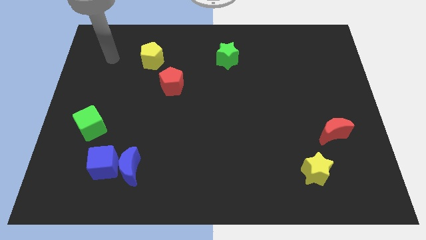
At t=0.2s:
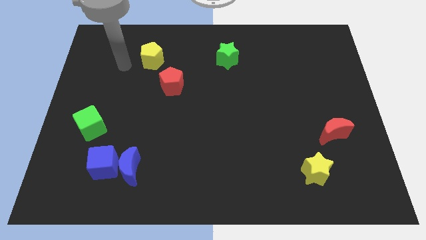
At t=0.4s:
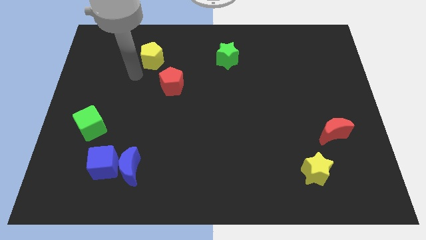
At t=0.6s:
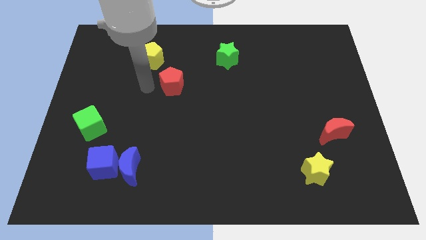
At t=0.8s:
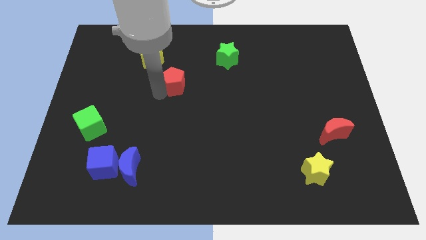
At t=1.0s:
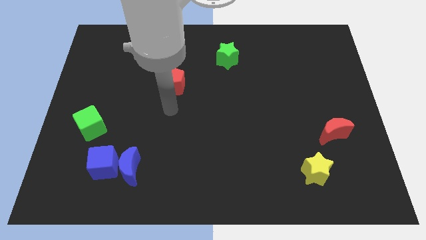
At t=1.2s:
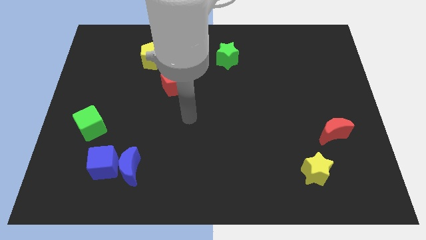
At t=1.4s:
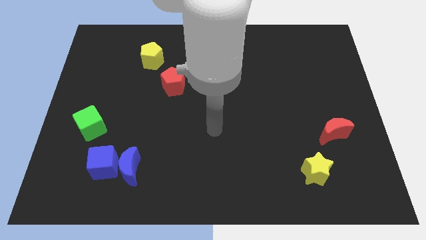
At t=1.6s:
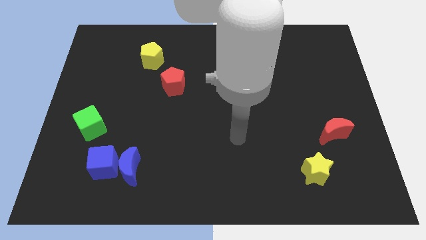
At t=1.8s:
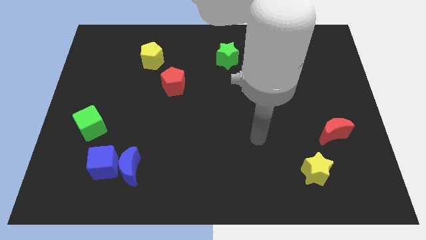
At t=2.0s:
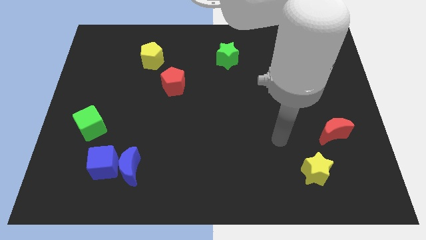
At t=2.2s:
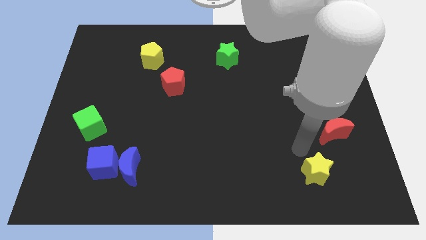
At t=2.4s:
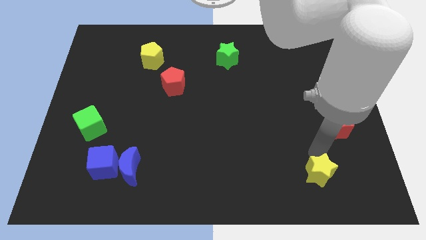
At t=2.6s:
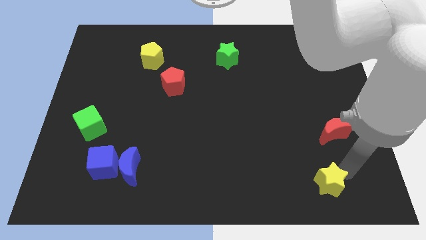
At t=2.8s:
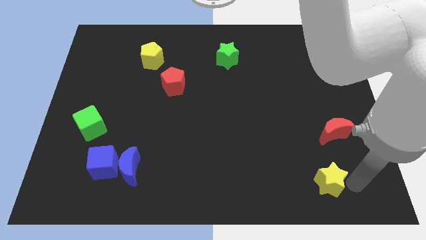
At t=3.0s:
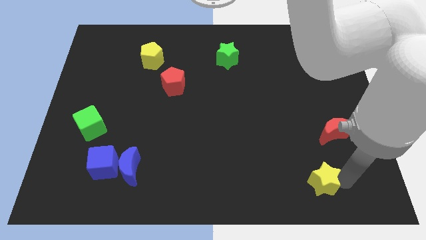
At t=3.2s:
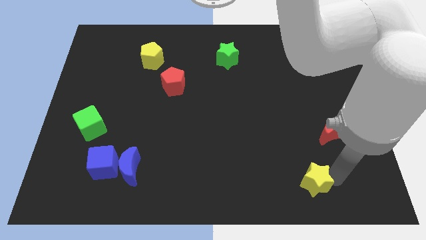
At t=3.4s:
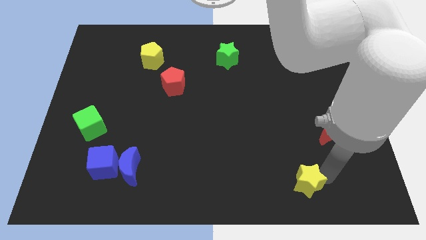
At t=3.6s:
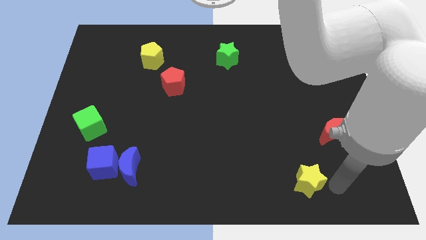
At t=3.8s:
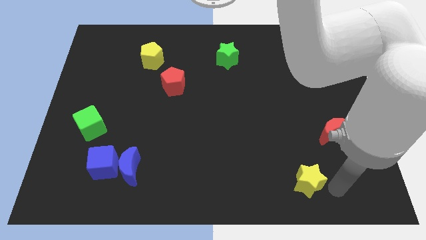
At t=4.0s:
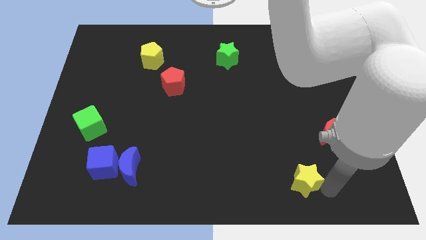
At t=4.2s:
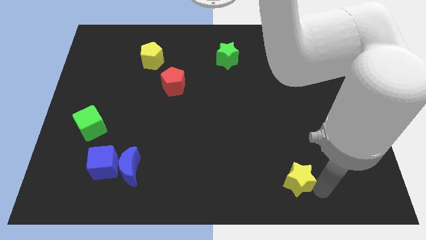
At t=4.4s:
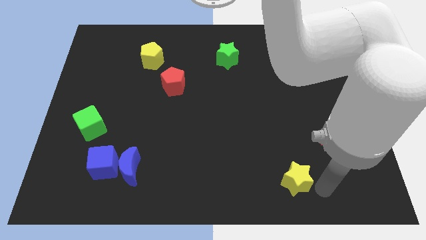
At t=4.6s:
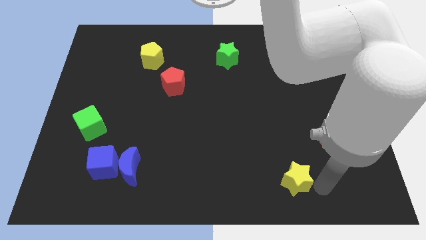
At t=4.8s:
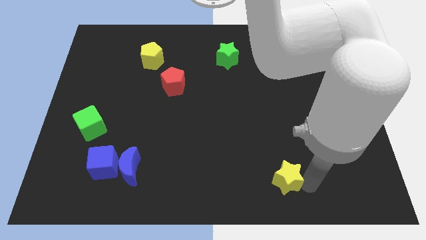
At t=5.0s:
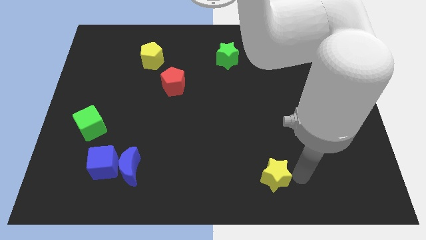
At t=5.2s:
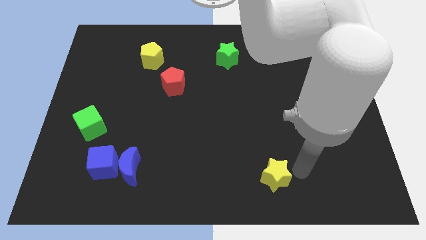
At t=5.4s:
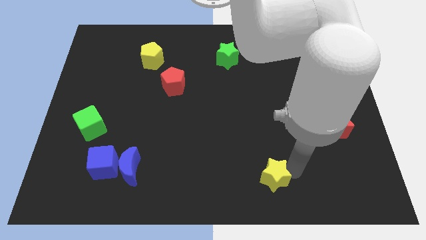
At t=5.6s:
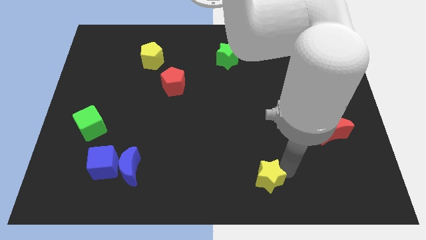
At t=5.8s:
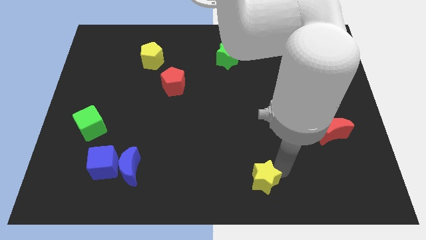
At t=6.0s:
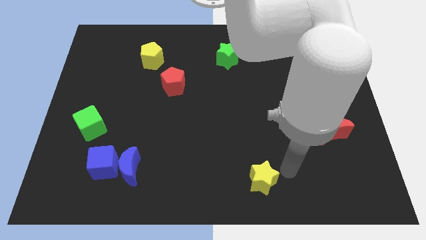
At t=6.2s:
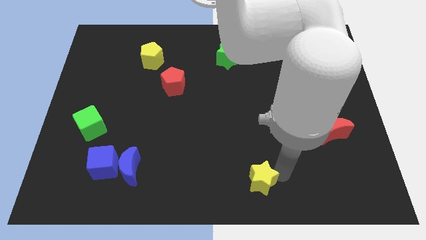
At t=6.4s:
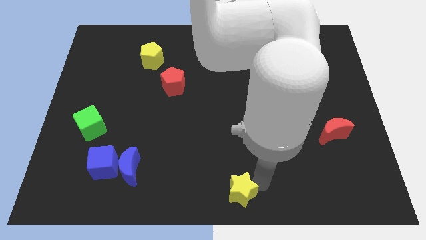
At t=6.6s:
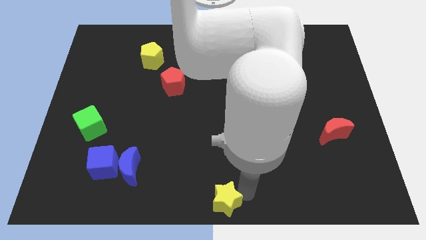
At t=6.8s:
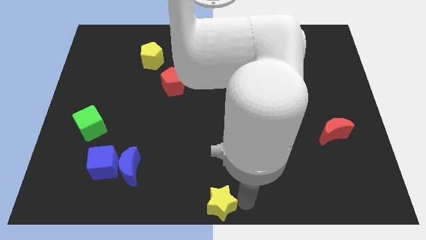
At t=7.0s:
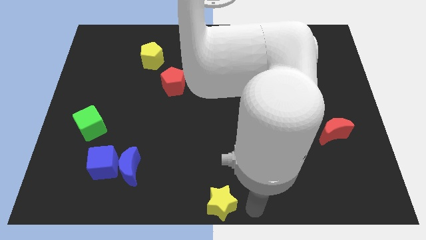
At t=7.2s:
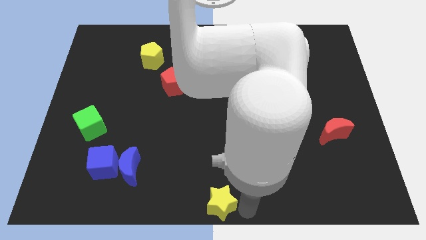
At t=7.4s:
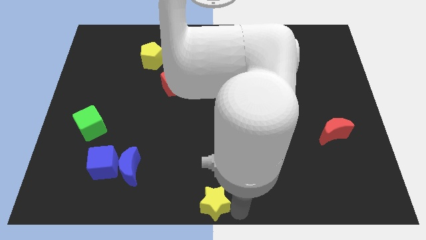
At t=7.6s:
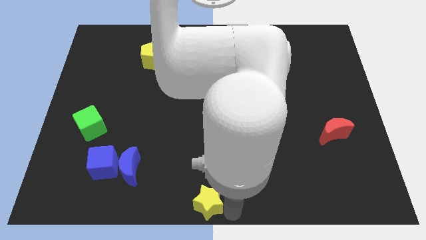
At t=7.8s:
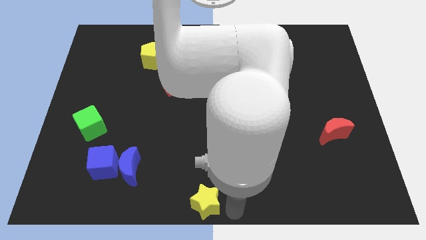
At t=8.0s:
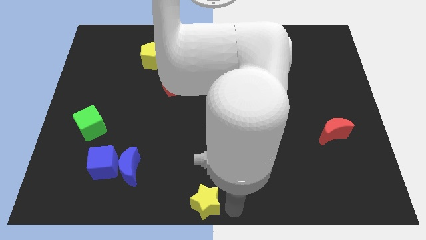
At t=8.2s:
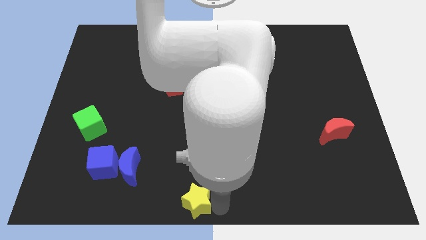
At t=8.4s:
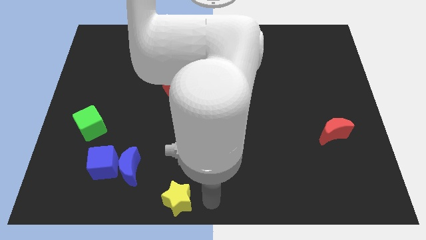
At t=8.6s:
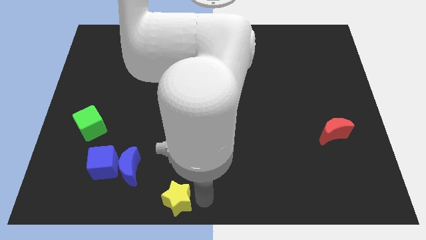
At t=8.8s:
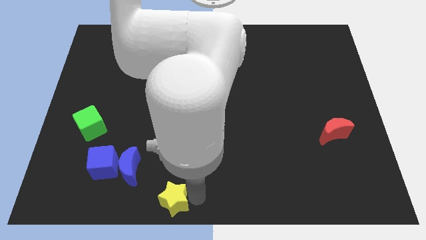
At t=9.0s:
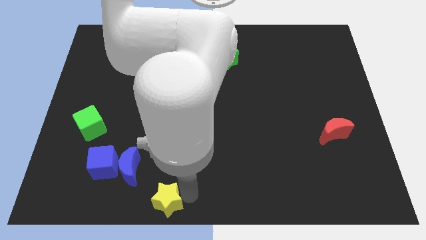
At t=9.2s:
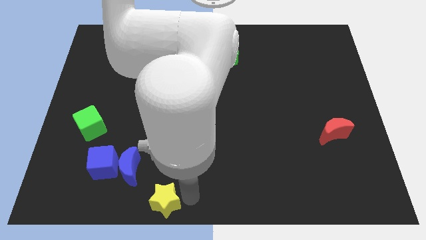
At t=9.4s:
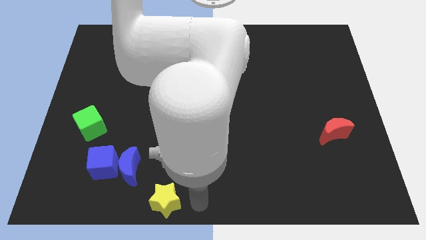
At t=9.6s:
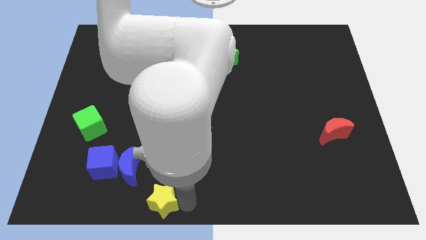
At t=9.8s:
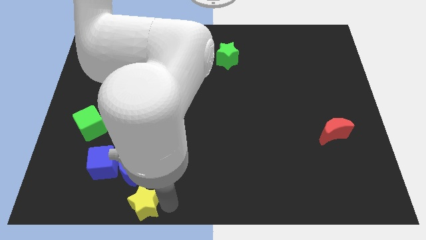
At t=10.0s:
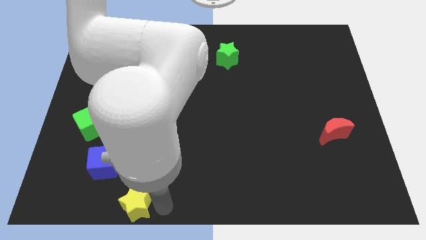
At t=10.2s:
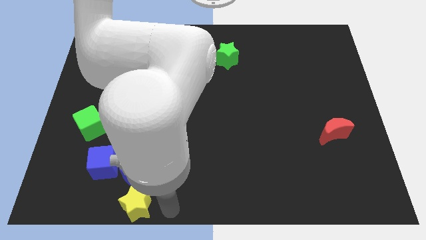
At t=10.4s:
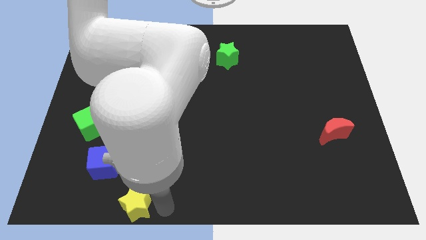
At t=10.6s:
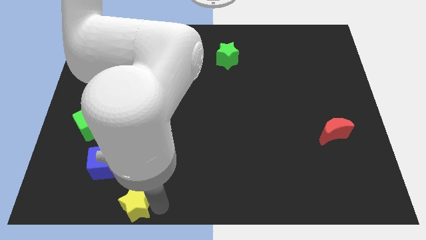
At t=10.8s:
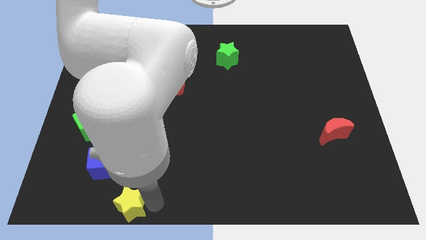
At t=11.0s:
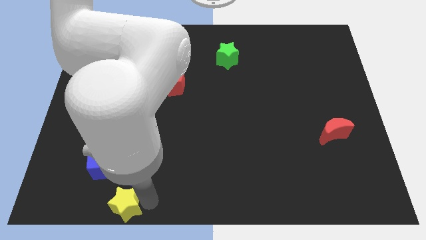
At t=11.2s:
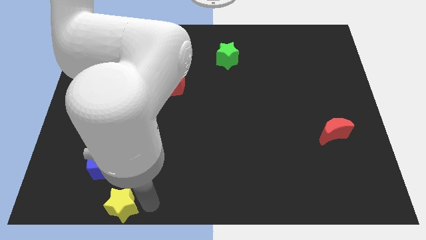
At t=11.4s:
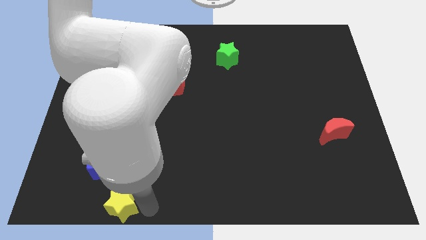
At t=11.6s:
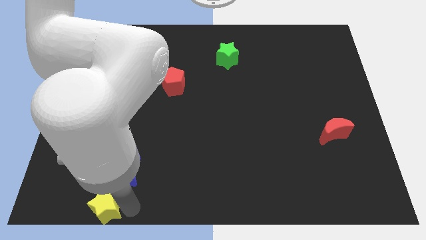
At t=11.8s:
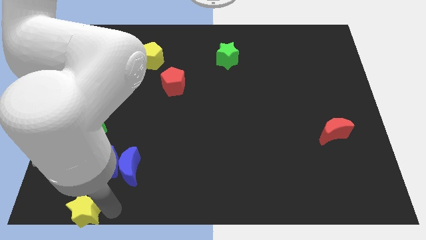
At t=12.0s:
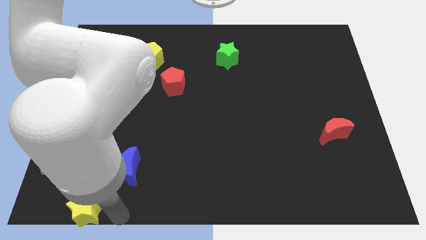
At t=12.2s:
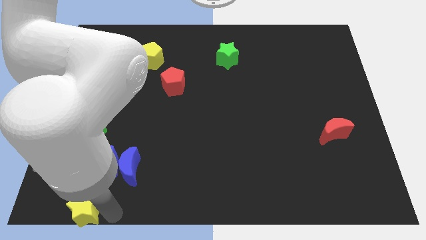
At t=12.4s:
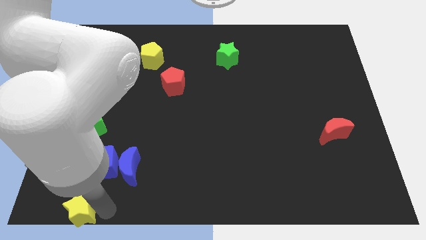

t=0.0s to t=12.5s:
put the yellow star to the bottom left

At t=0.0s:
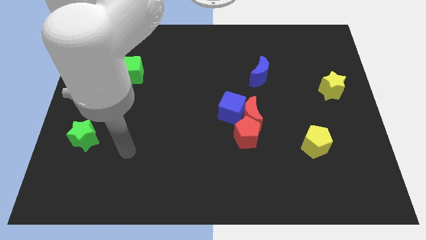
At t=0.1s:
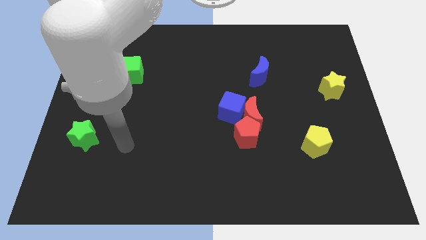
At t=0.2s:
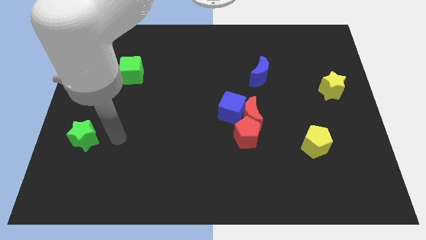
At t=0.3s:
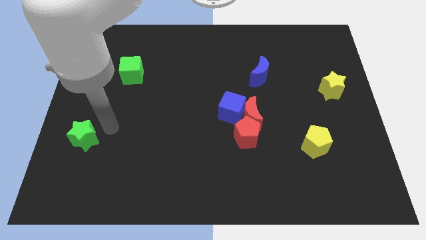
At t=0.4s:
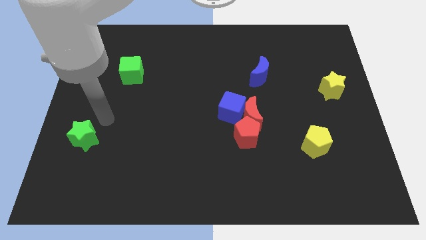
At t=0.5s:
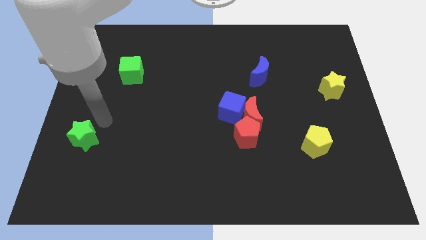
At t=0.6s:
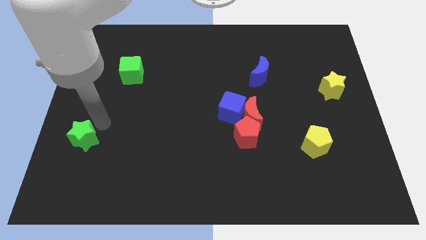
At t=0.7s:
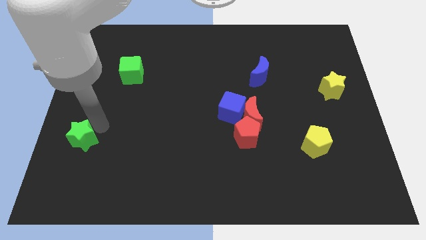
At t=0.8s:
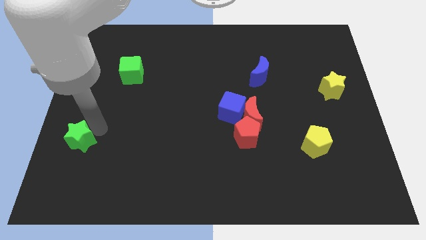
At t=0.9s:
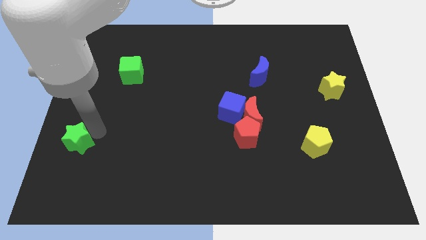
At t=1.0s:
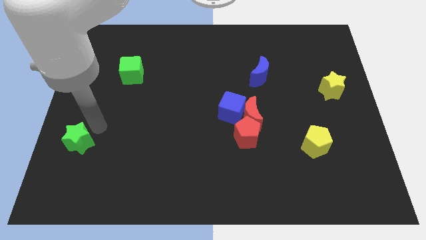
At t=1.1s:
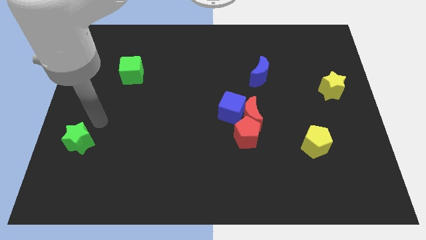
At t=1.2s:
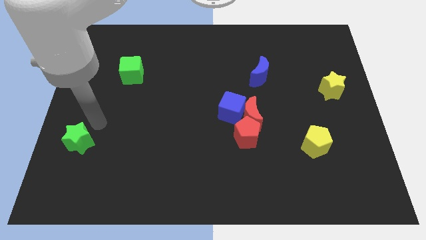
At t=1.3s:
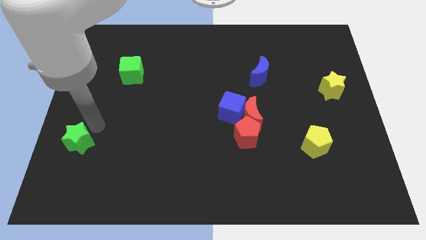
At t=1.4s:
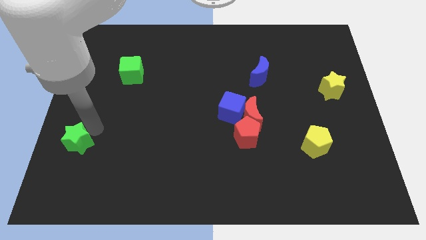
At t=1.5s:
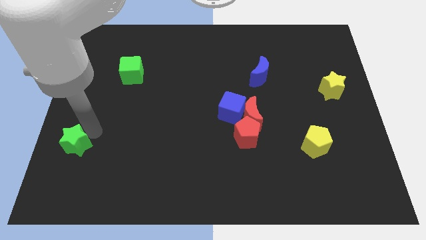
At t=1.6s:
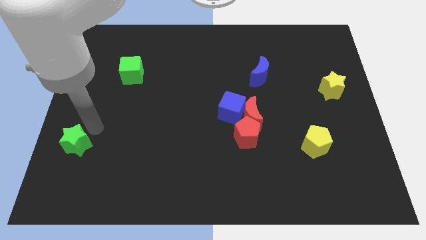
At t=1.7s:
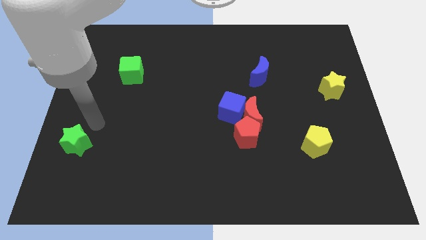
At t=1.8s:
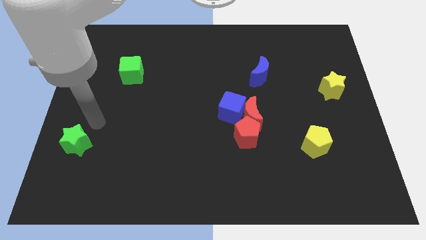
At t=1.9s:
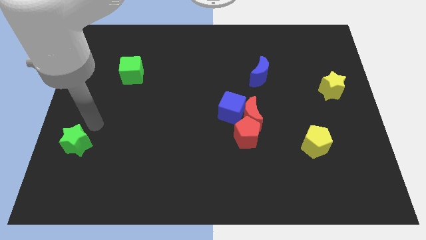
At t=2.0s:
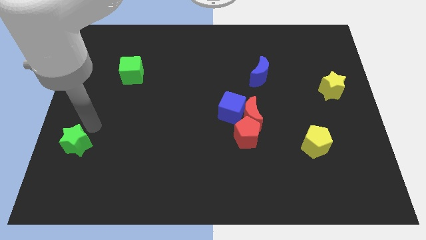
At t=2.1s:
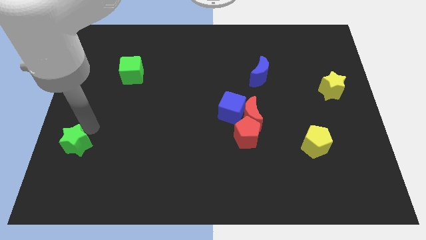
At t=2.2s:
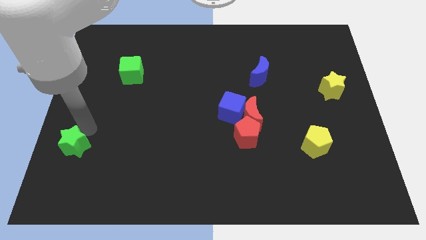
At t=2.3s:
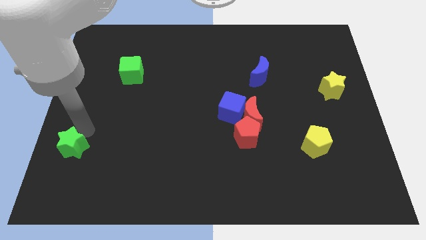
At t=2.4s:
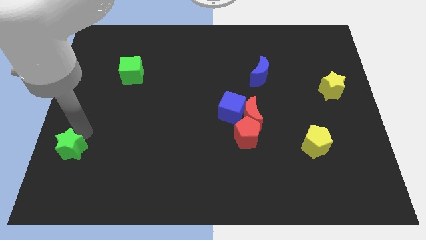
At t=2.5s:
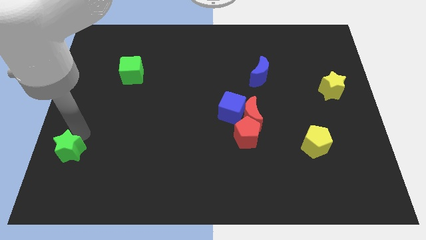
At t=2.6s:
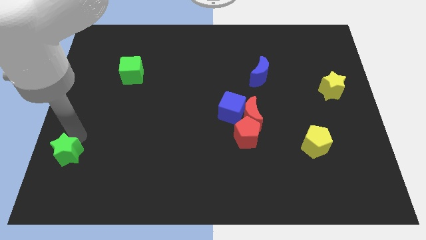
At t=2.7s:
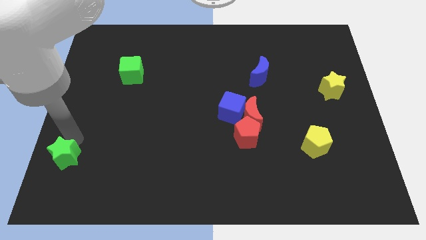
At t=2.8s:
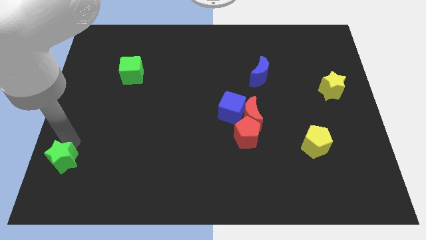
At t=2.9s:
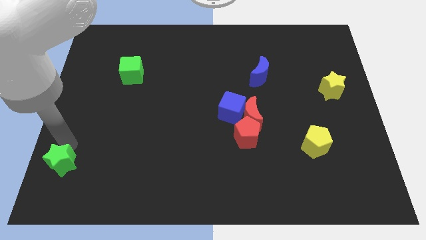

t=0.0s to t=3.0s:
move the green star to the bottom left corner
